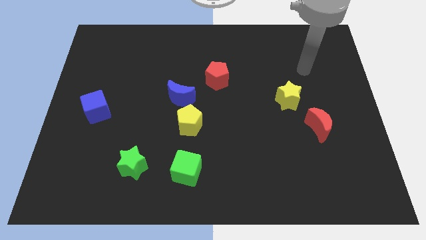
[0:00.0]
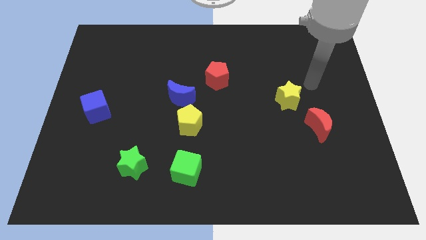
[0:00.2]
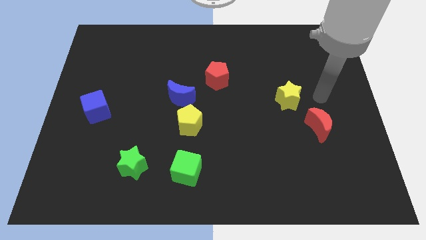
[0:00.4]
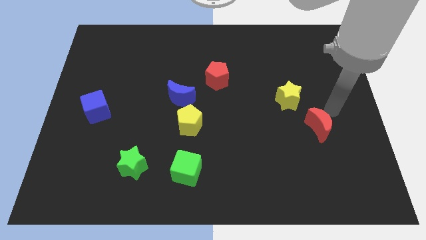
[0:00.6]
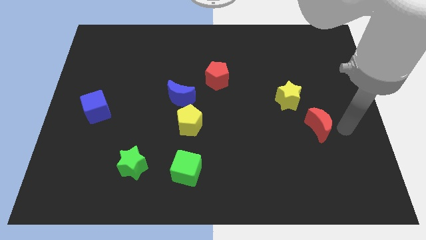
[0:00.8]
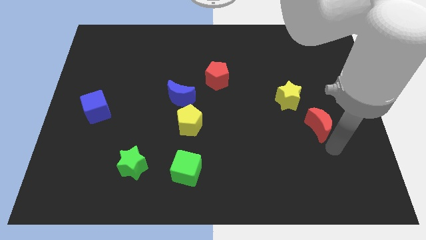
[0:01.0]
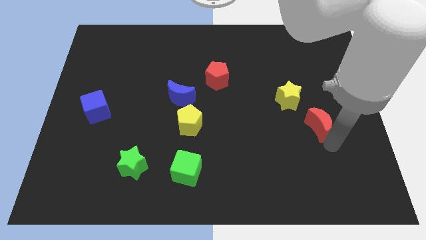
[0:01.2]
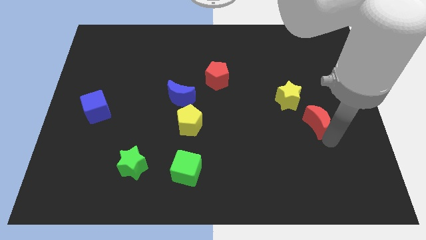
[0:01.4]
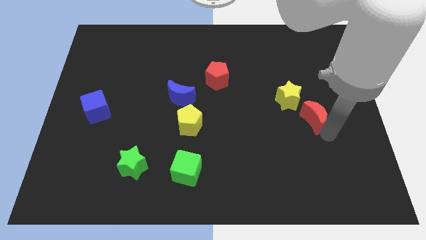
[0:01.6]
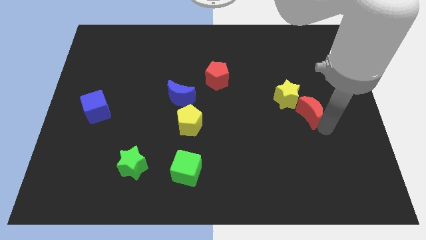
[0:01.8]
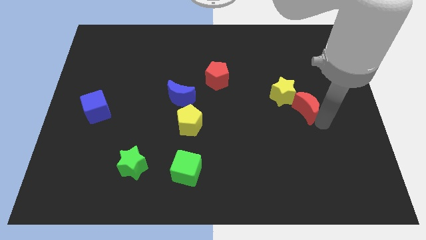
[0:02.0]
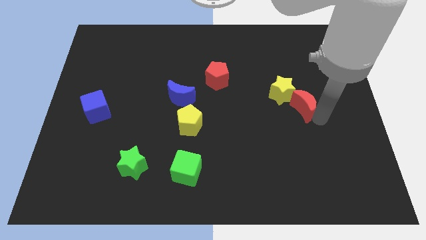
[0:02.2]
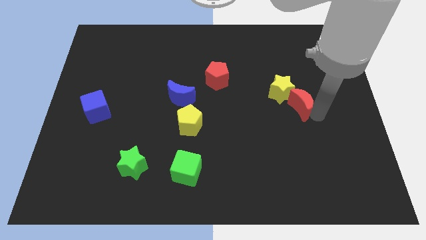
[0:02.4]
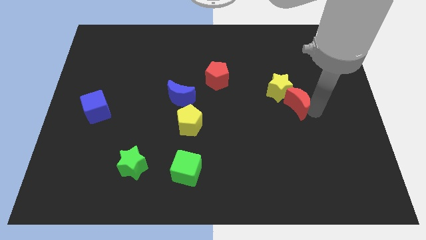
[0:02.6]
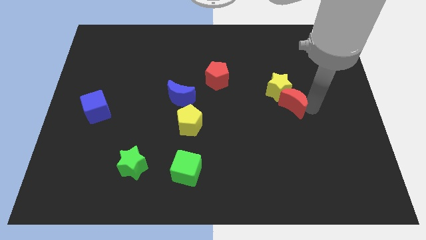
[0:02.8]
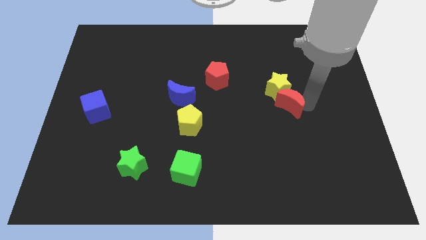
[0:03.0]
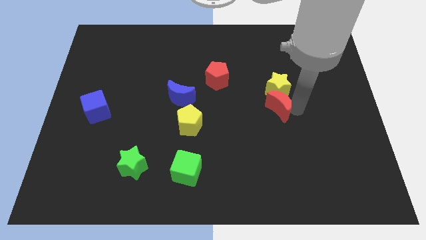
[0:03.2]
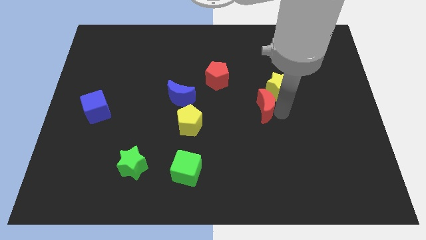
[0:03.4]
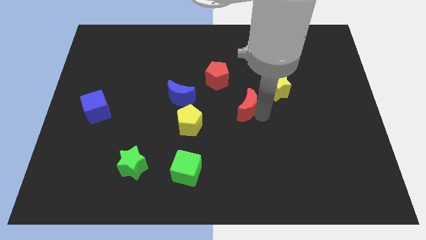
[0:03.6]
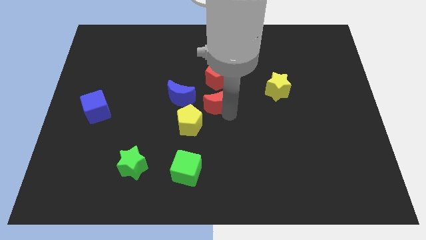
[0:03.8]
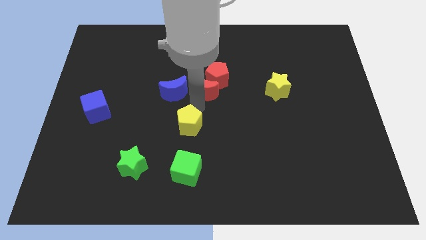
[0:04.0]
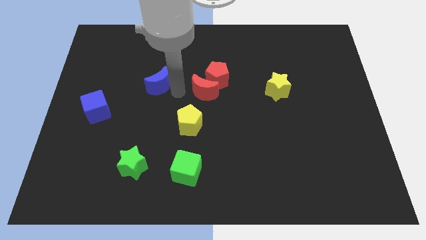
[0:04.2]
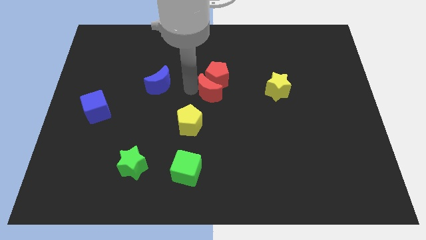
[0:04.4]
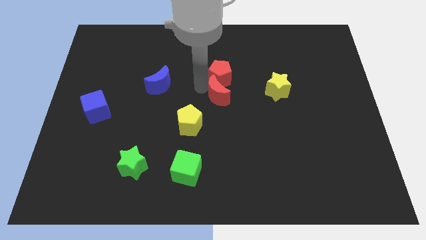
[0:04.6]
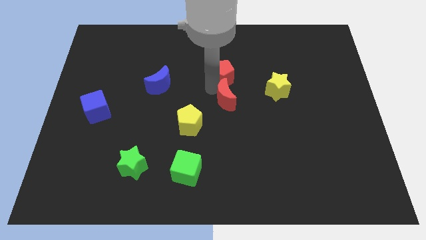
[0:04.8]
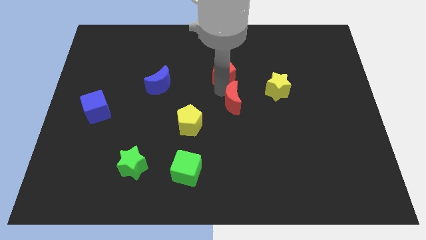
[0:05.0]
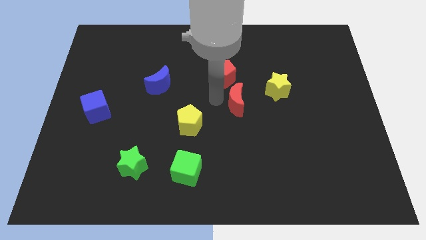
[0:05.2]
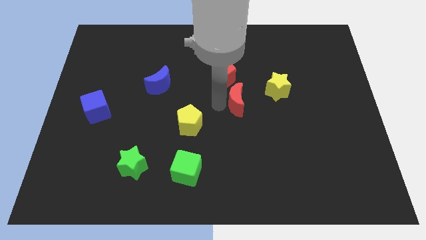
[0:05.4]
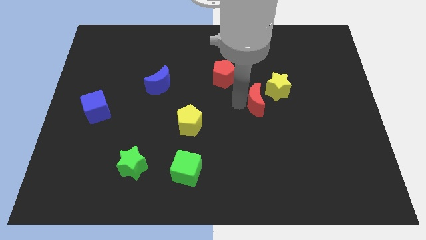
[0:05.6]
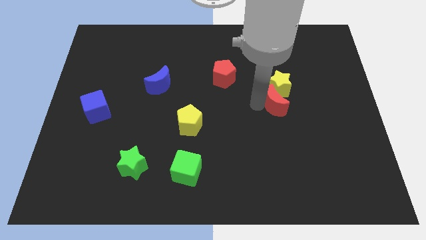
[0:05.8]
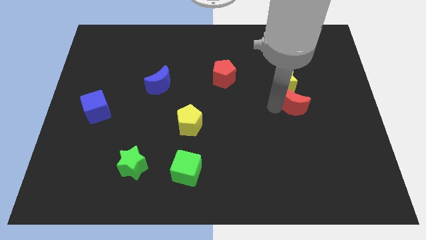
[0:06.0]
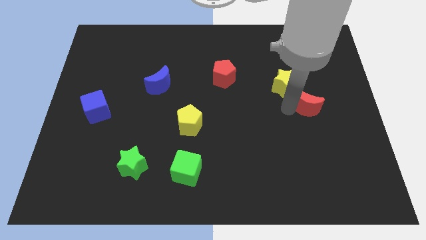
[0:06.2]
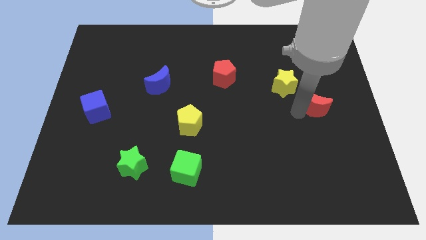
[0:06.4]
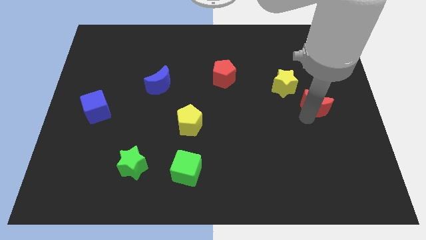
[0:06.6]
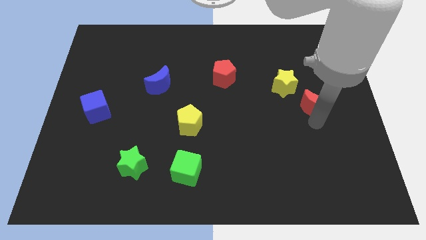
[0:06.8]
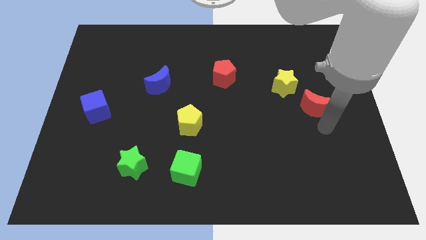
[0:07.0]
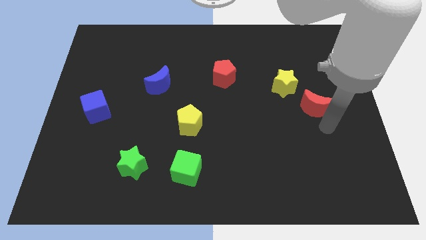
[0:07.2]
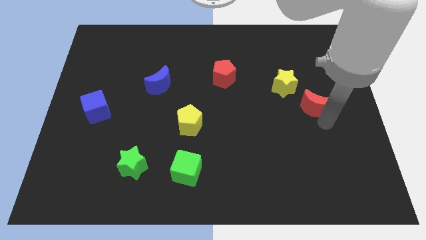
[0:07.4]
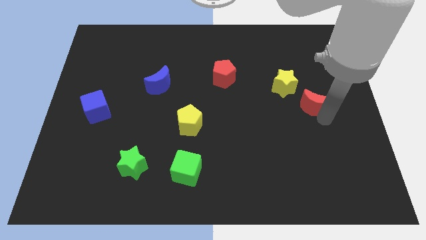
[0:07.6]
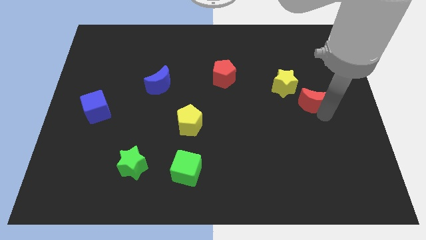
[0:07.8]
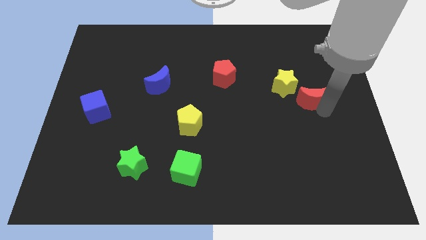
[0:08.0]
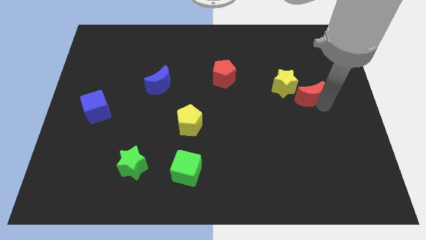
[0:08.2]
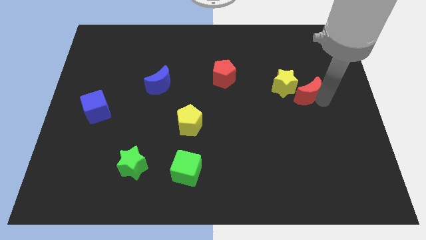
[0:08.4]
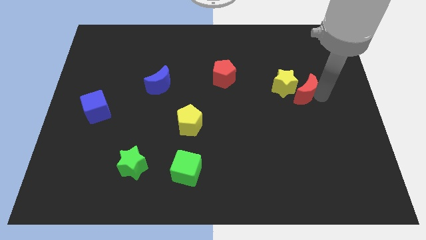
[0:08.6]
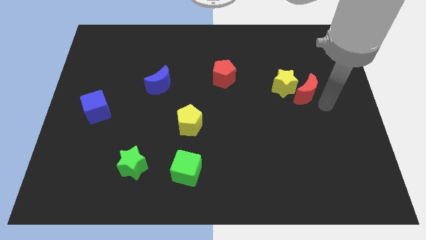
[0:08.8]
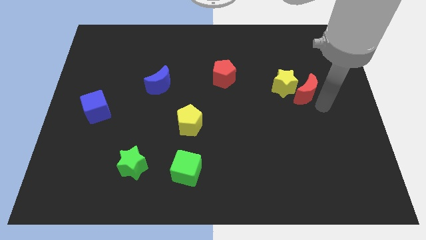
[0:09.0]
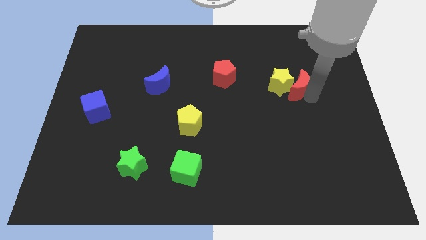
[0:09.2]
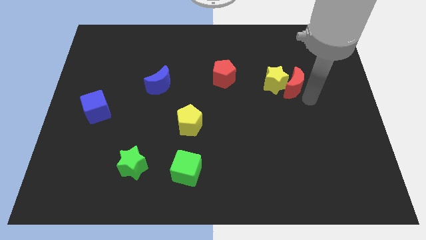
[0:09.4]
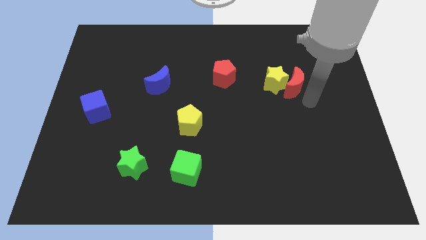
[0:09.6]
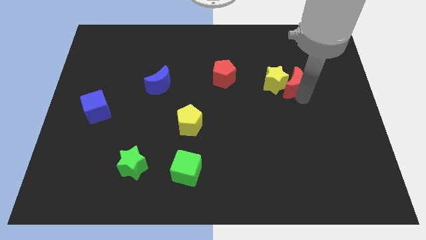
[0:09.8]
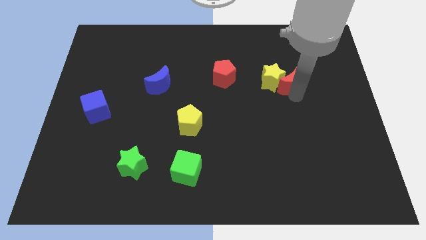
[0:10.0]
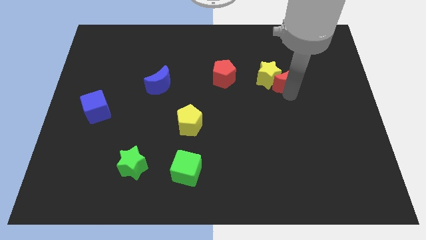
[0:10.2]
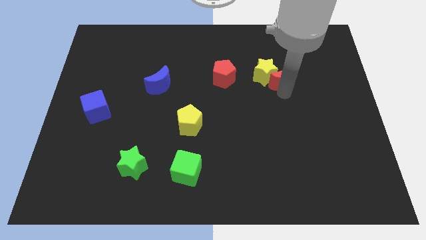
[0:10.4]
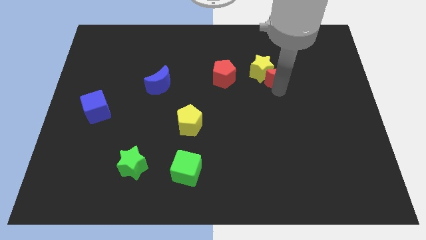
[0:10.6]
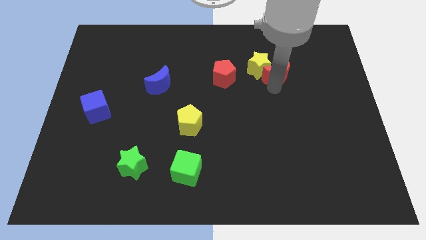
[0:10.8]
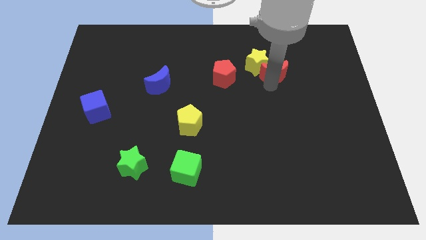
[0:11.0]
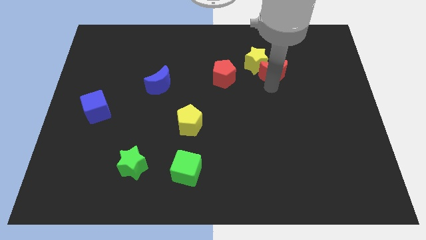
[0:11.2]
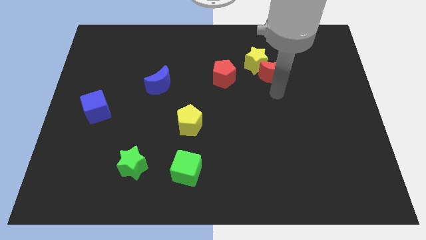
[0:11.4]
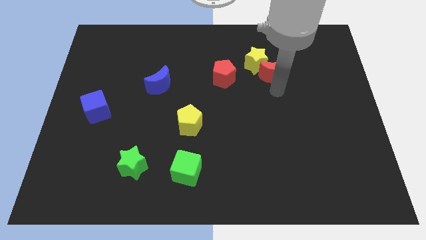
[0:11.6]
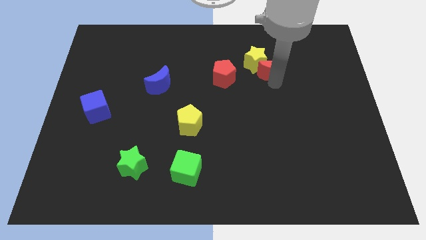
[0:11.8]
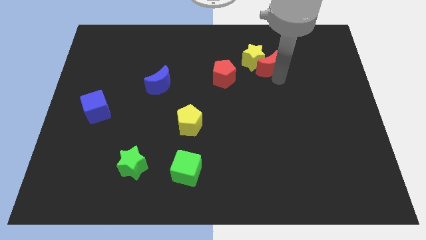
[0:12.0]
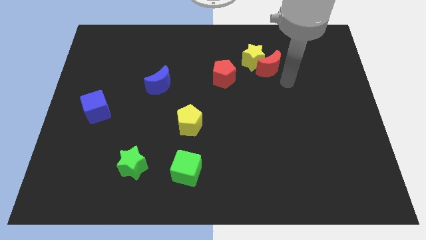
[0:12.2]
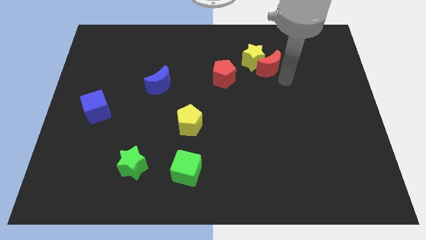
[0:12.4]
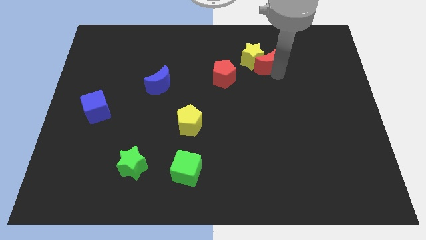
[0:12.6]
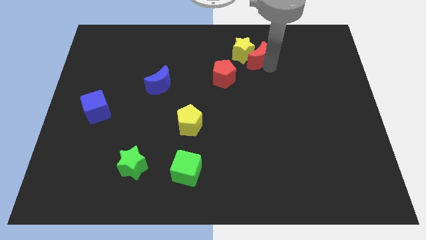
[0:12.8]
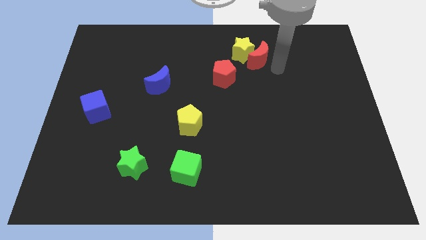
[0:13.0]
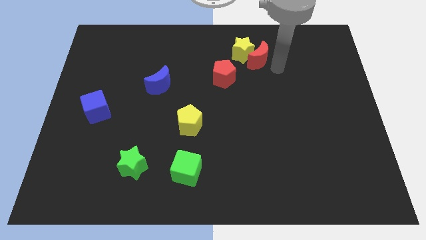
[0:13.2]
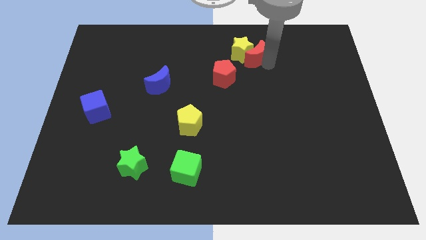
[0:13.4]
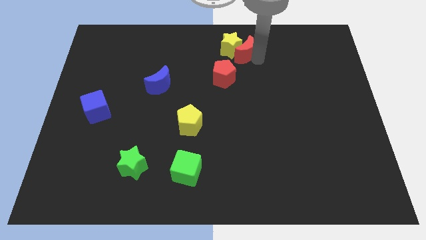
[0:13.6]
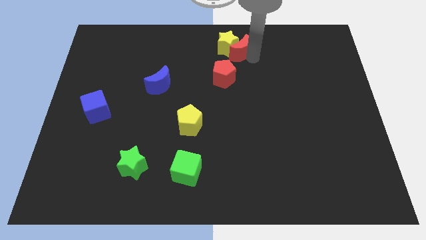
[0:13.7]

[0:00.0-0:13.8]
push the red moon to the towards your base
